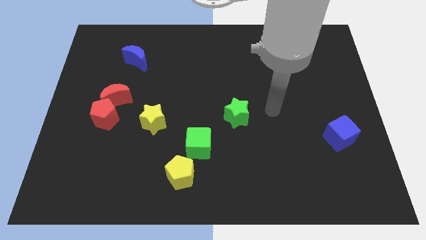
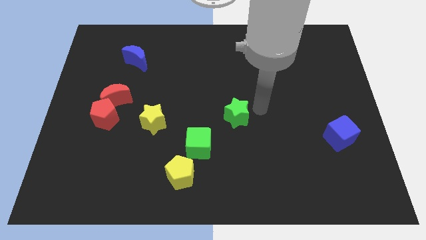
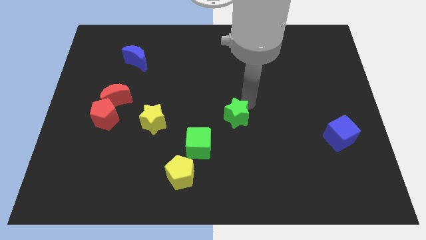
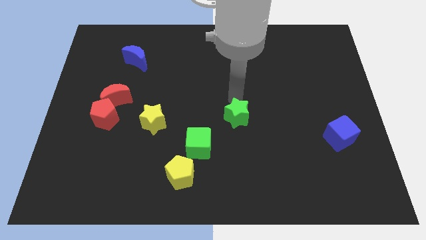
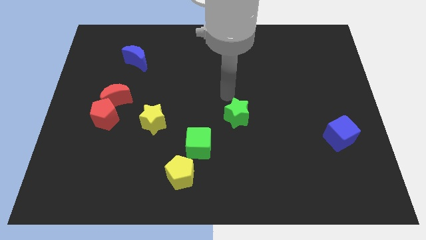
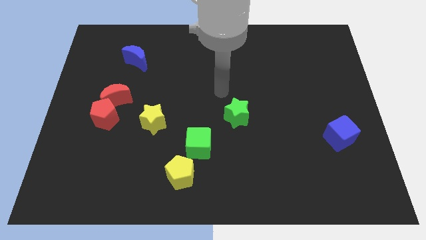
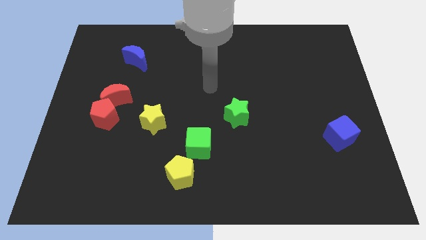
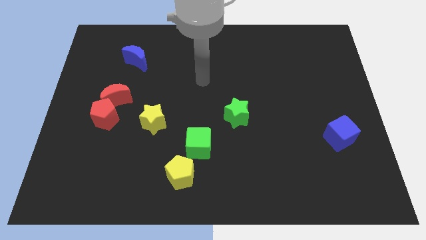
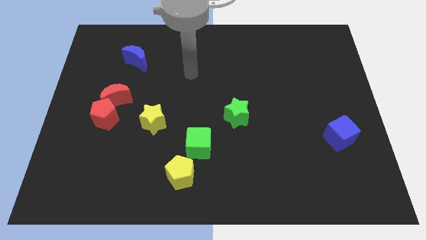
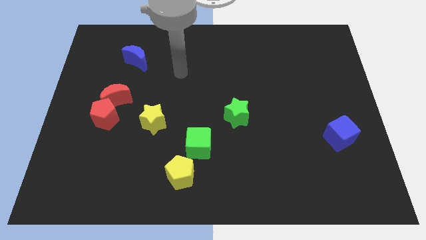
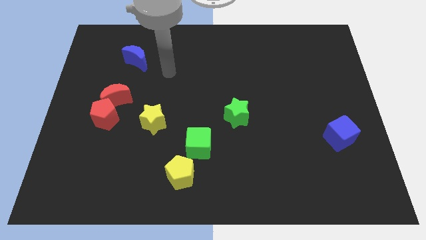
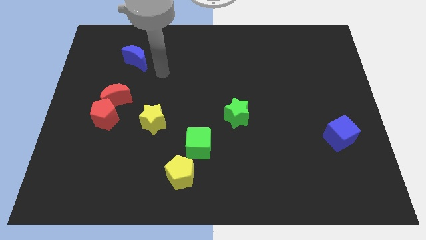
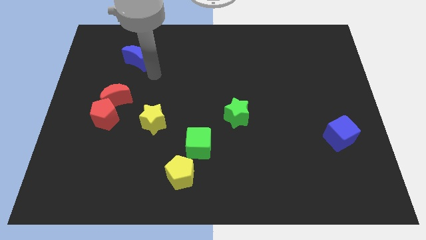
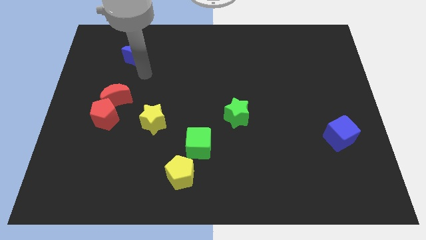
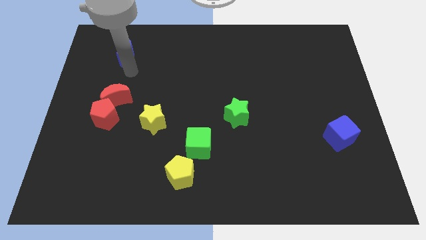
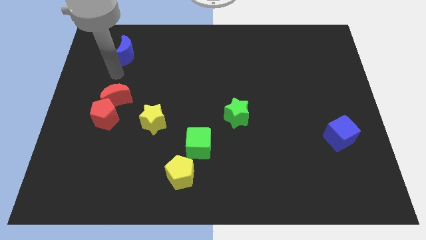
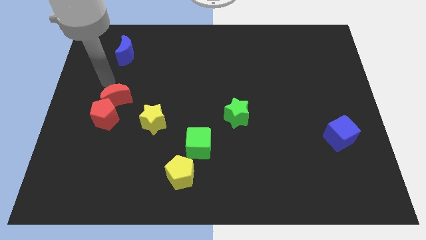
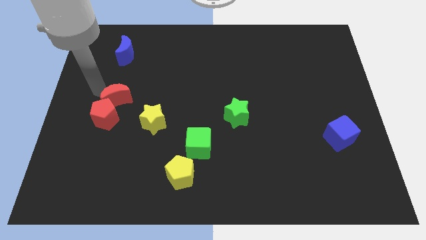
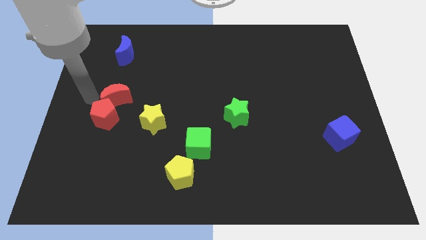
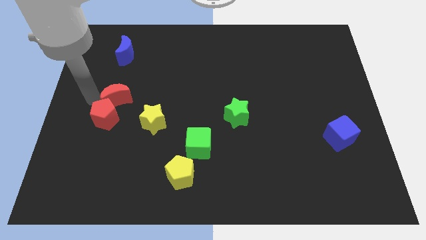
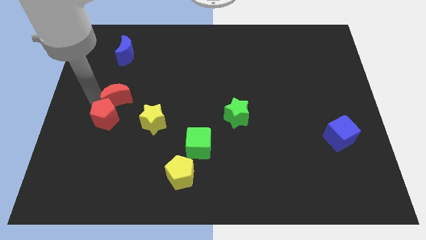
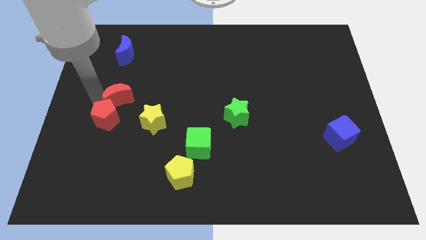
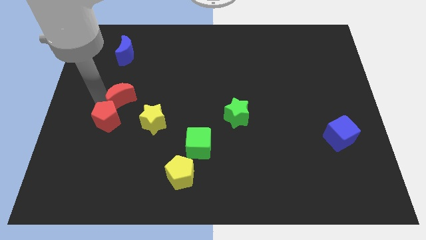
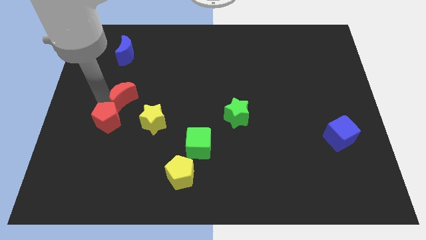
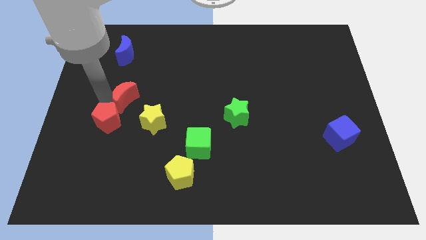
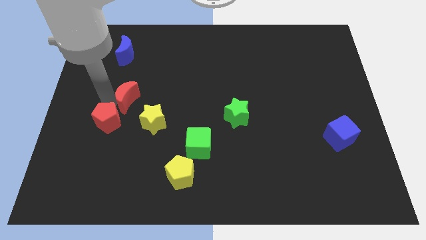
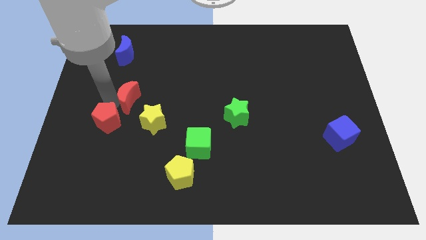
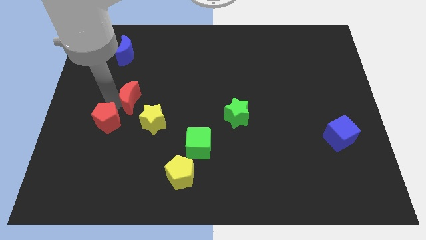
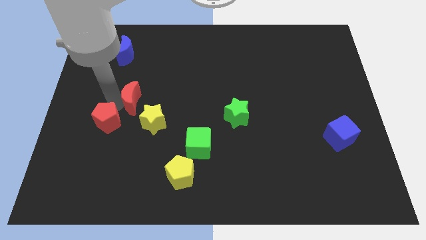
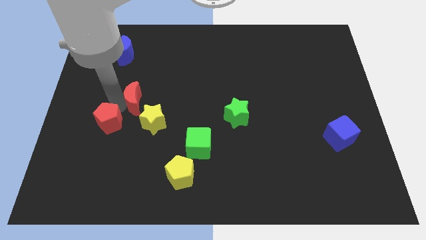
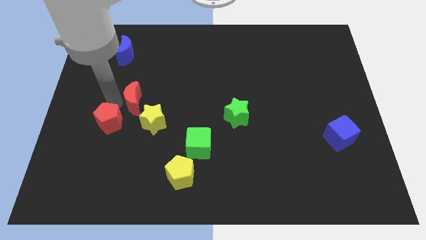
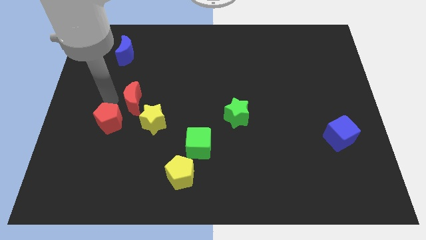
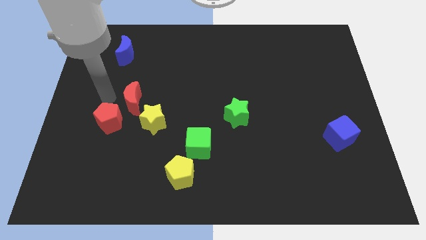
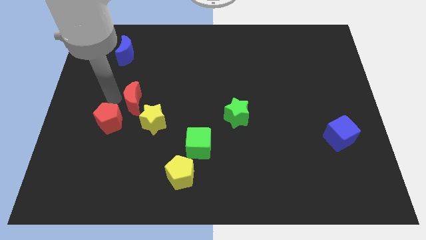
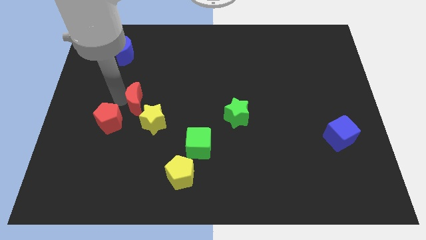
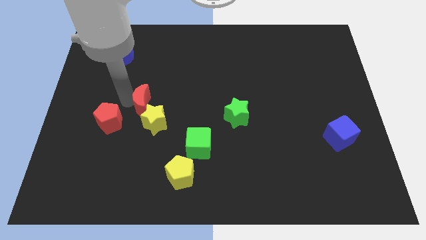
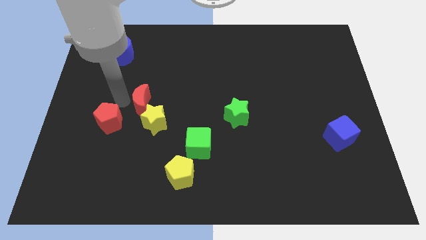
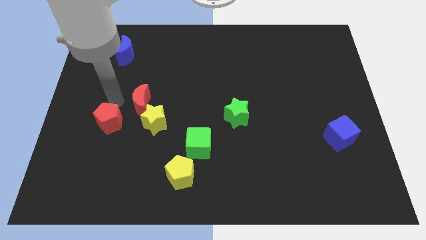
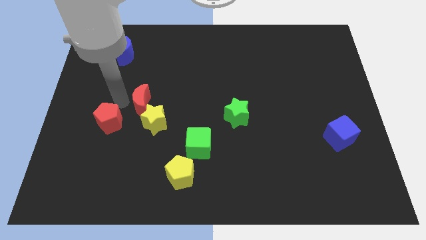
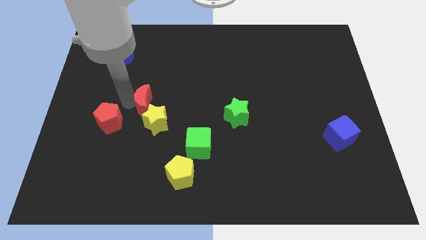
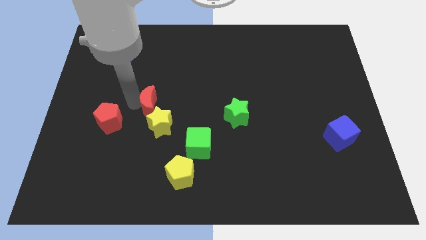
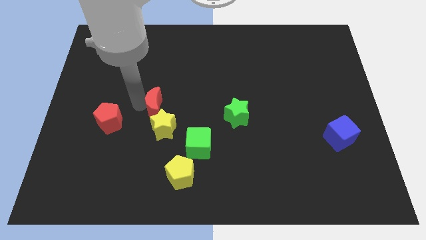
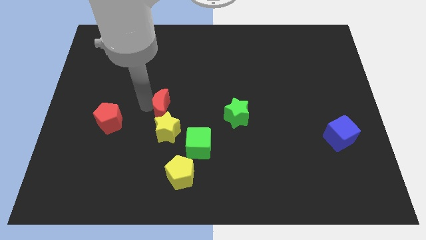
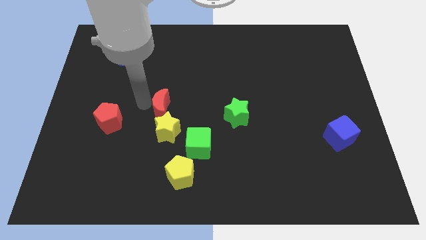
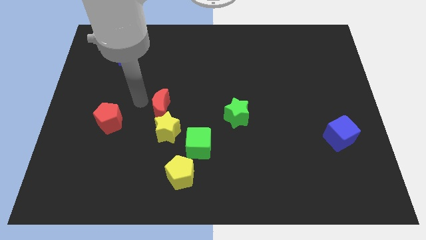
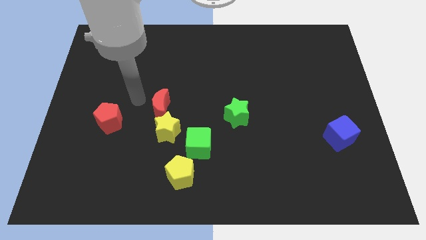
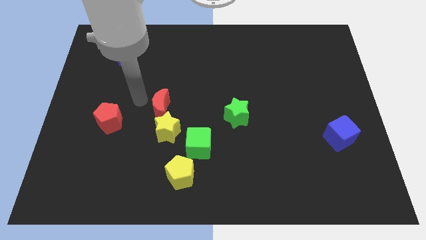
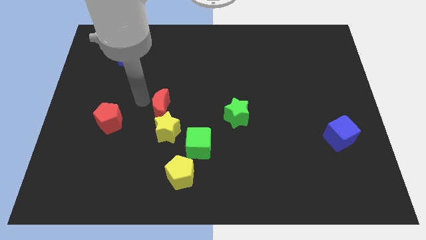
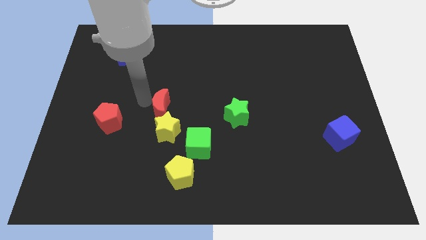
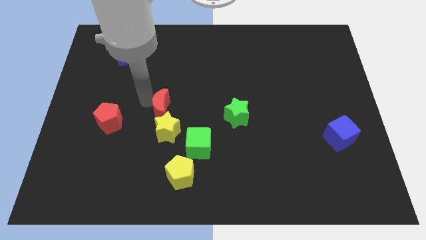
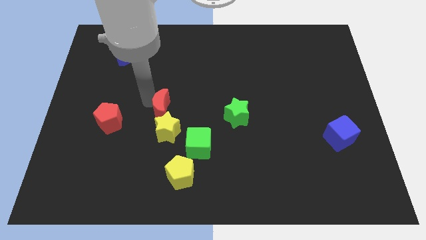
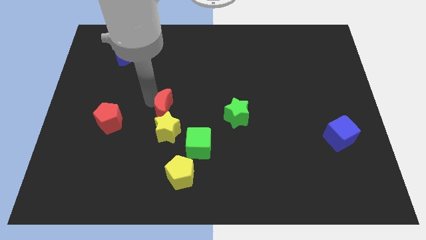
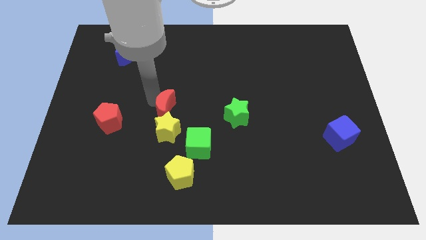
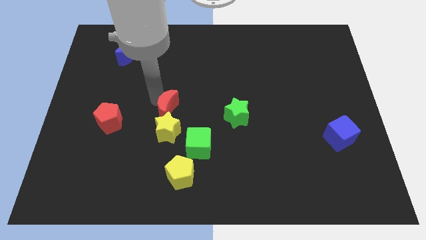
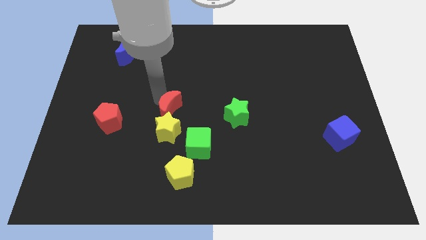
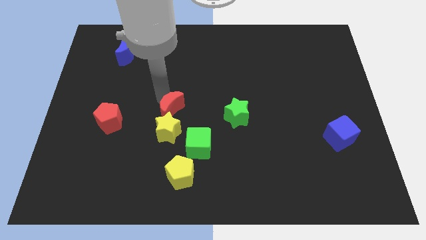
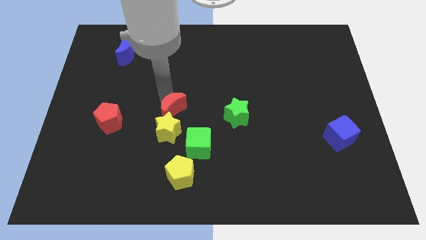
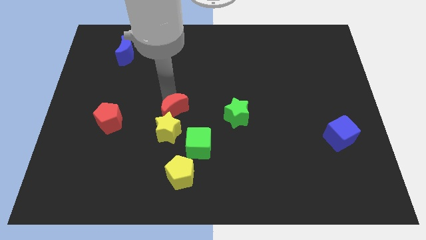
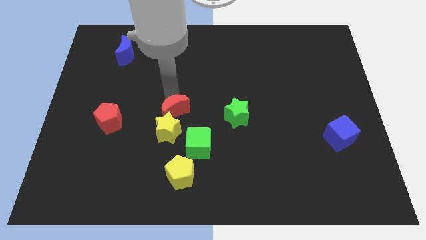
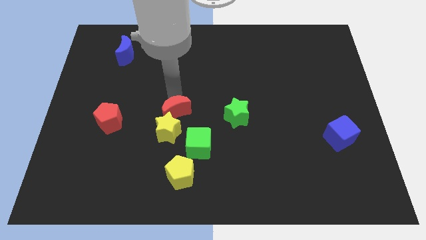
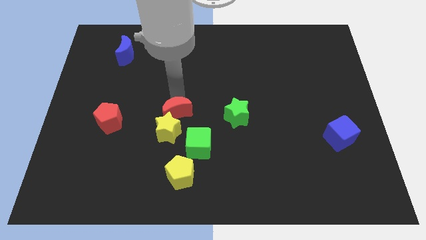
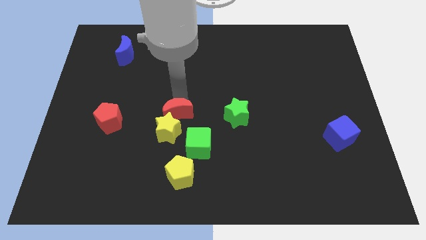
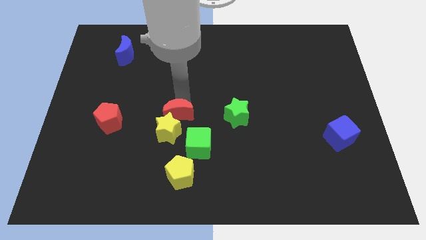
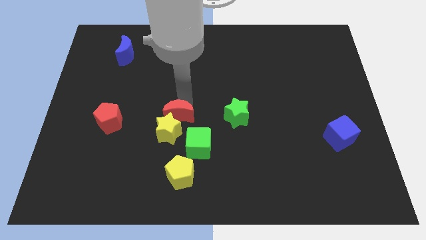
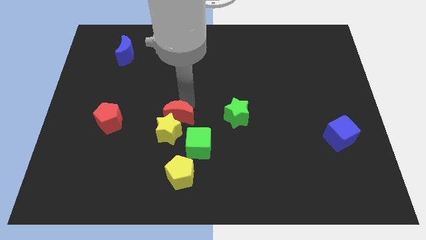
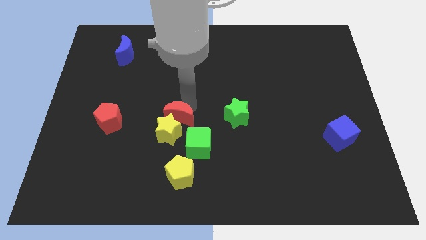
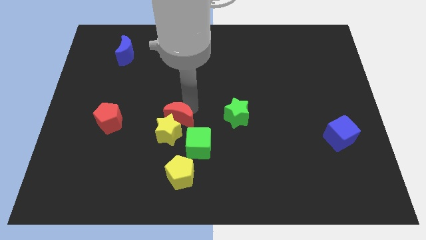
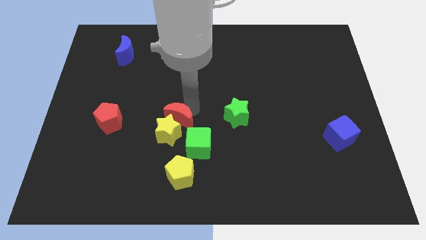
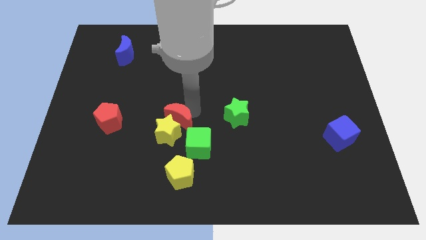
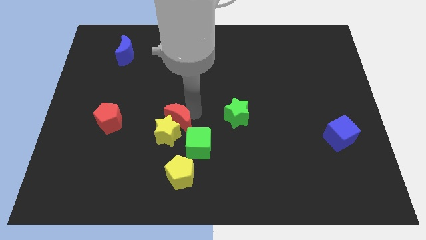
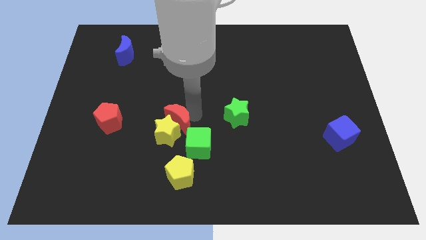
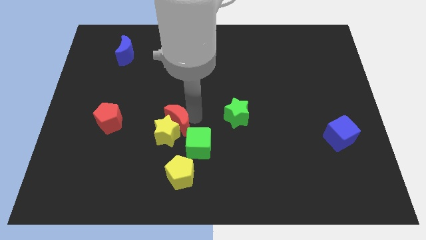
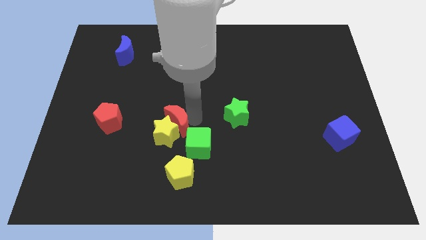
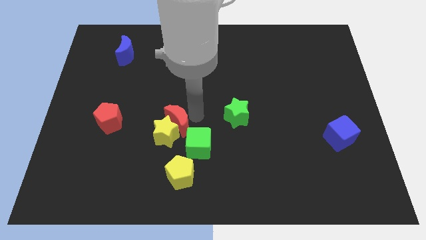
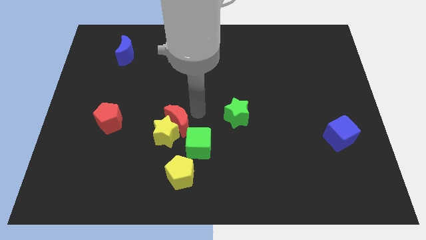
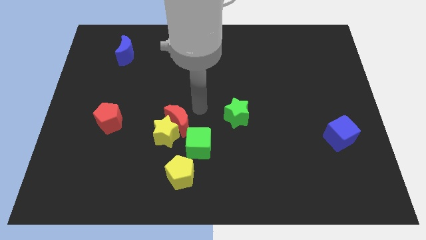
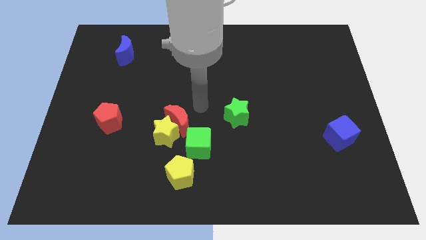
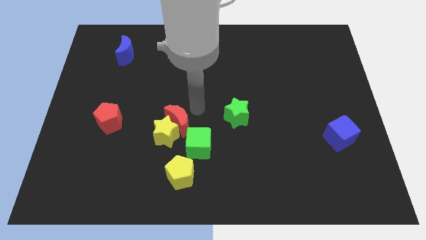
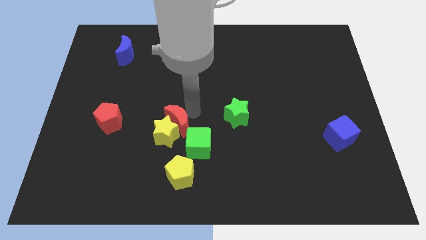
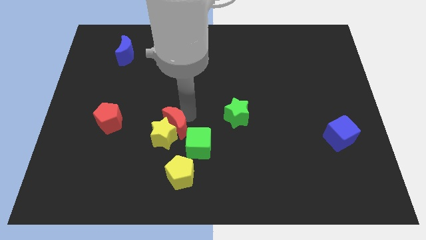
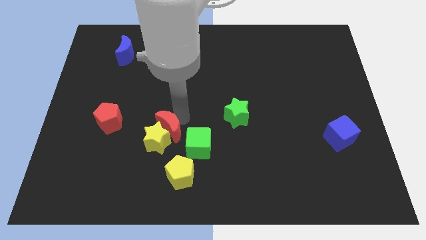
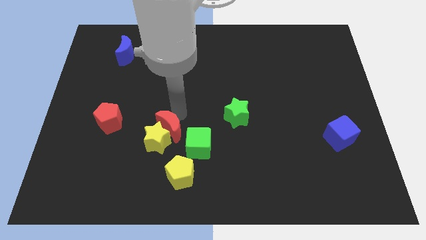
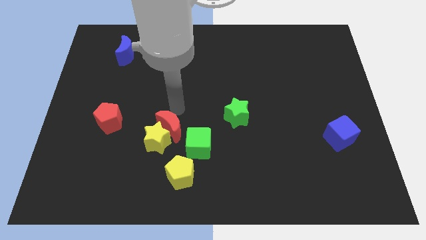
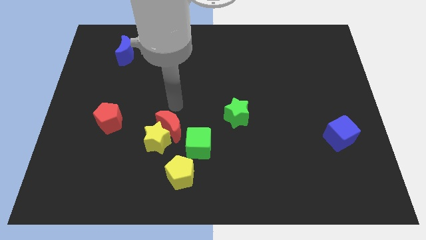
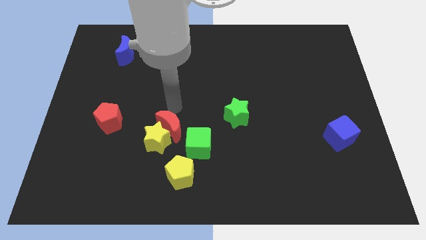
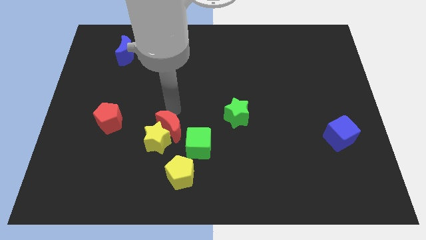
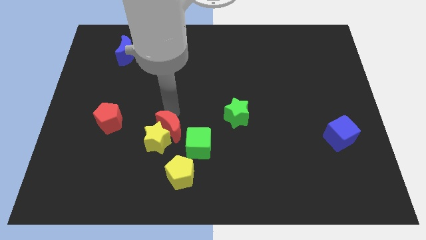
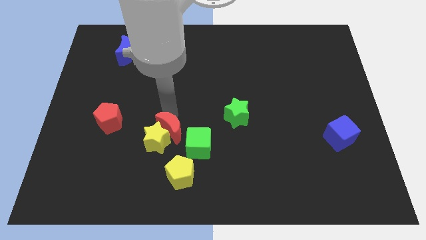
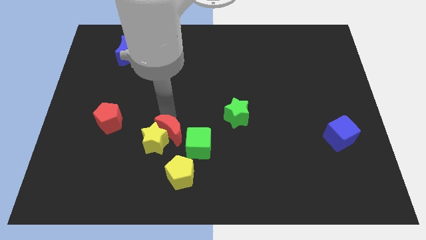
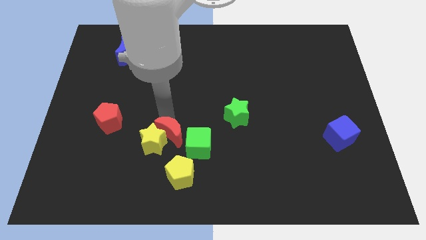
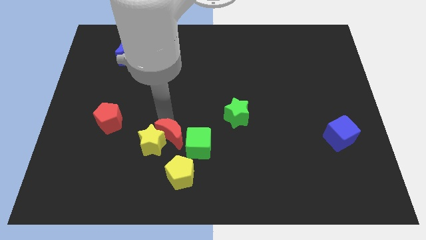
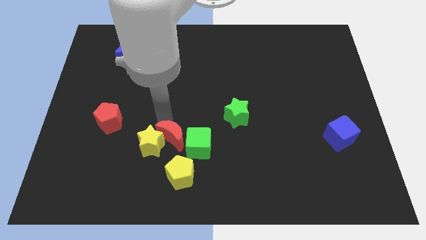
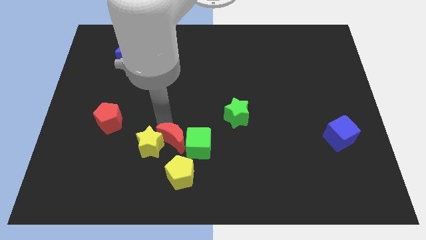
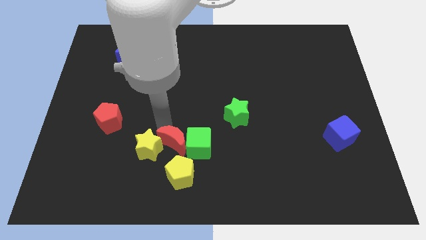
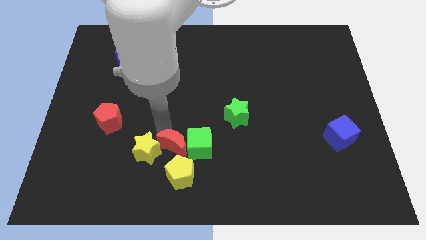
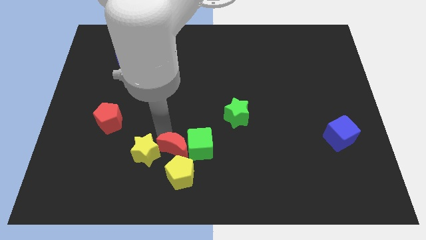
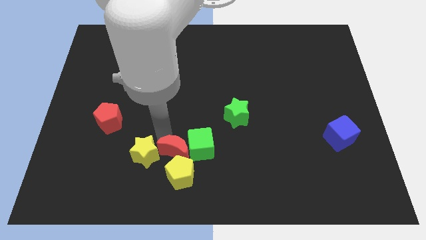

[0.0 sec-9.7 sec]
move the red moon next to the yellow pentagon
